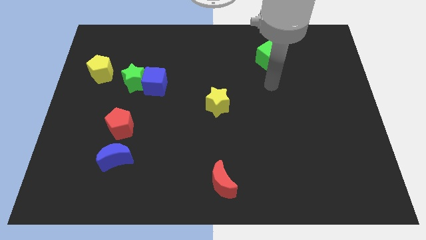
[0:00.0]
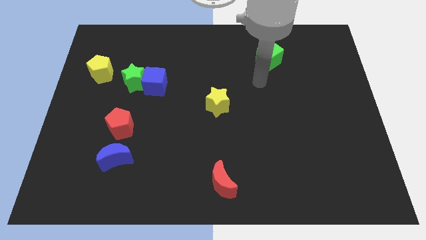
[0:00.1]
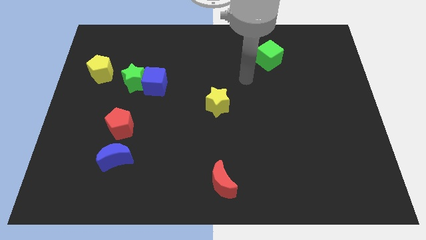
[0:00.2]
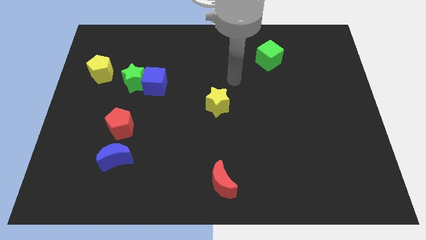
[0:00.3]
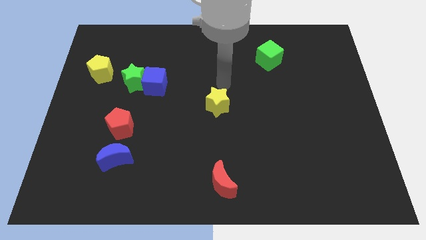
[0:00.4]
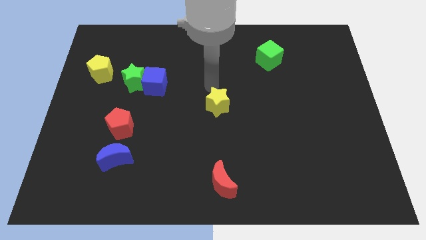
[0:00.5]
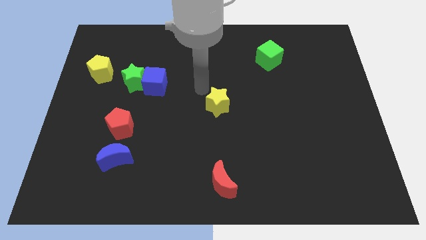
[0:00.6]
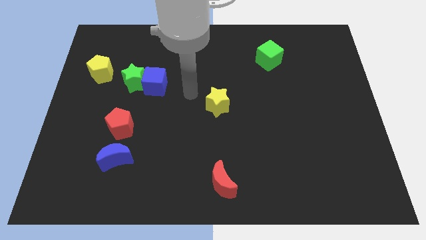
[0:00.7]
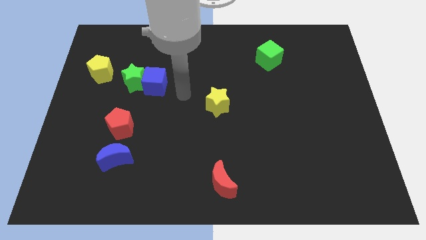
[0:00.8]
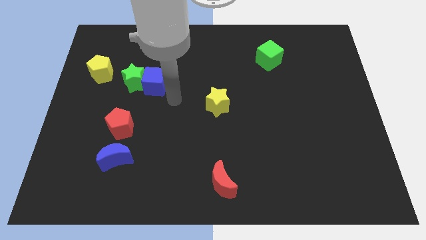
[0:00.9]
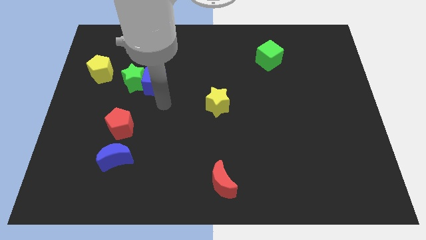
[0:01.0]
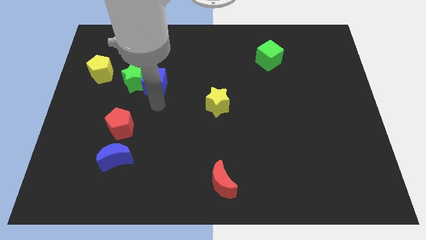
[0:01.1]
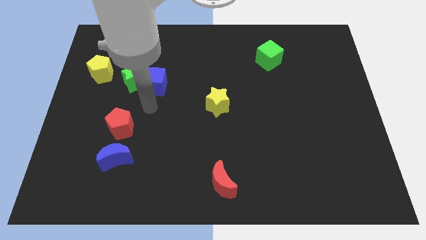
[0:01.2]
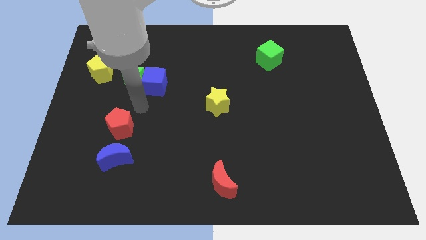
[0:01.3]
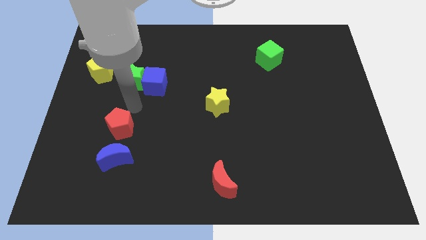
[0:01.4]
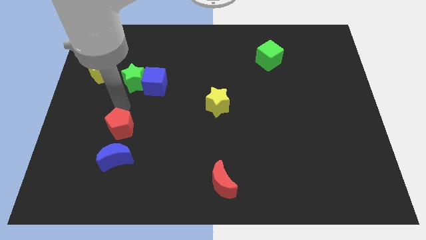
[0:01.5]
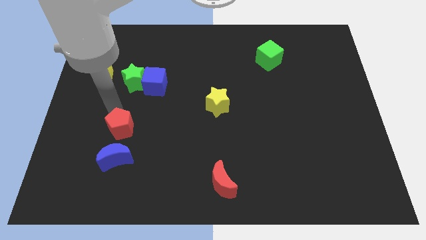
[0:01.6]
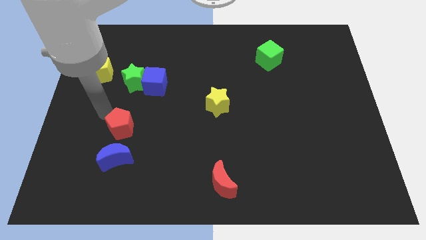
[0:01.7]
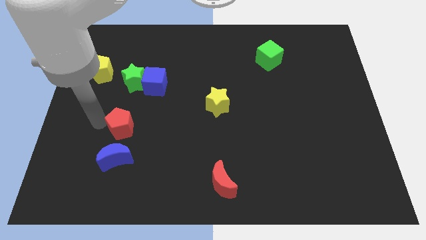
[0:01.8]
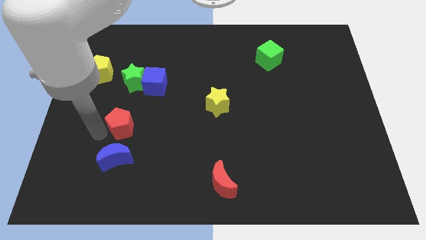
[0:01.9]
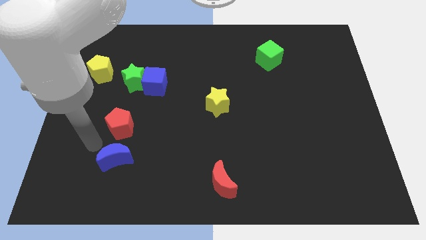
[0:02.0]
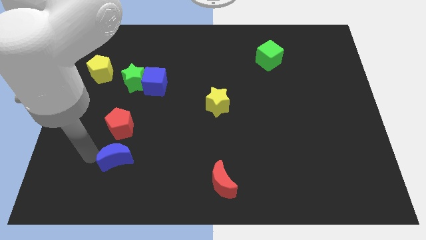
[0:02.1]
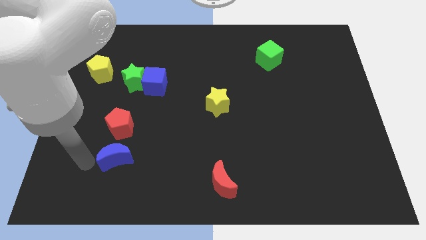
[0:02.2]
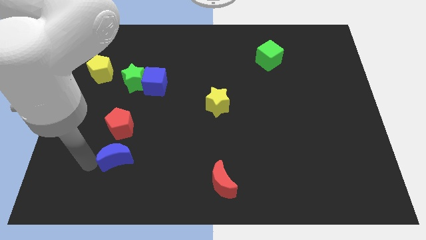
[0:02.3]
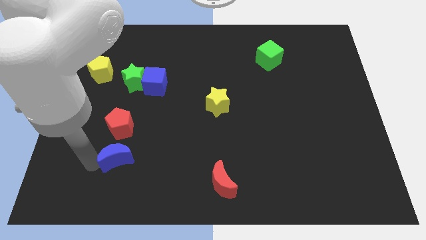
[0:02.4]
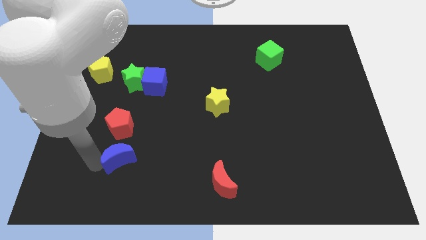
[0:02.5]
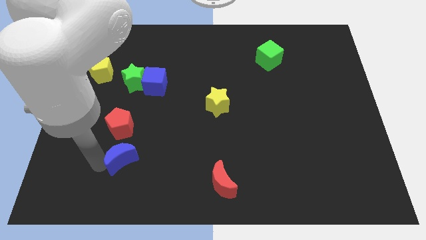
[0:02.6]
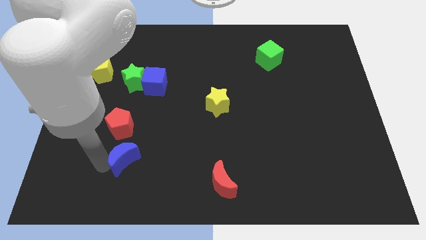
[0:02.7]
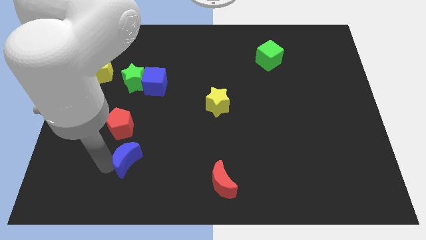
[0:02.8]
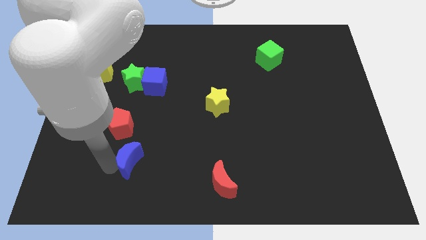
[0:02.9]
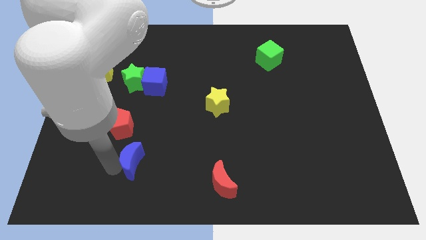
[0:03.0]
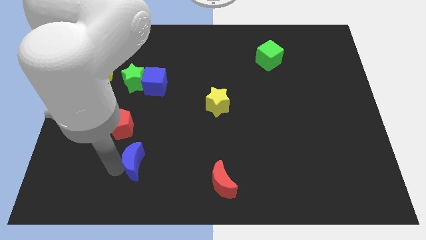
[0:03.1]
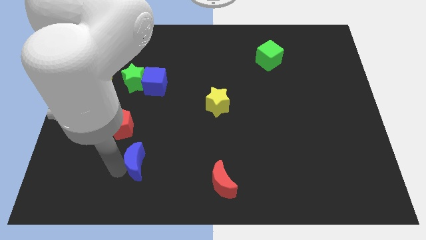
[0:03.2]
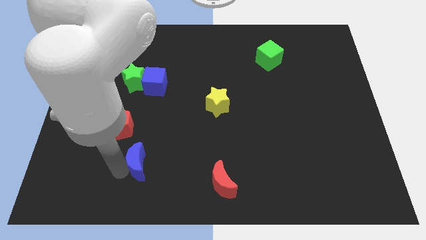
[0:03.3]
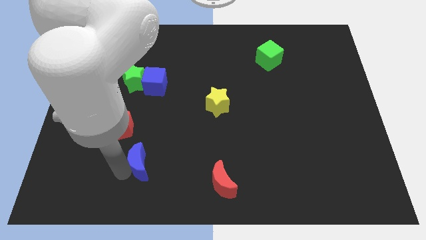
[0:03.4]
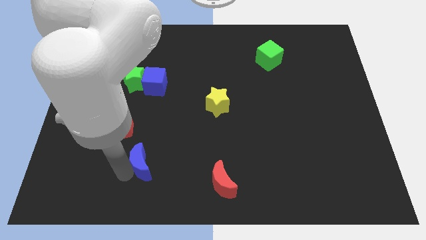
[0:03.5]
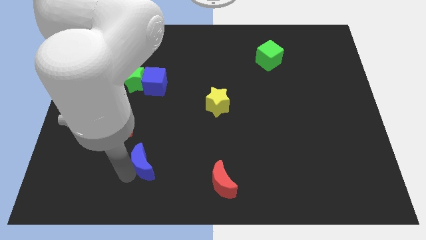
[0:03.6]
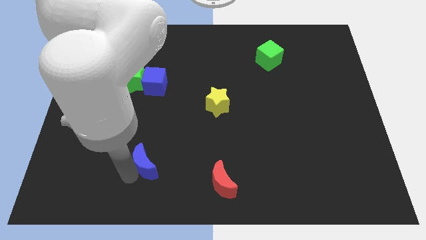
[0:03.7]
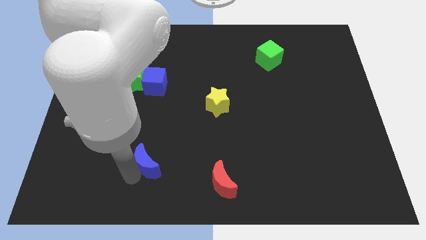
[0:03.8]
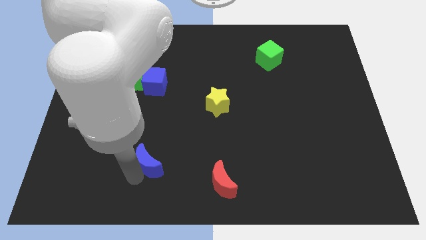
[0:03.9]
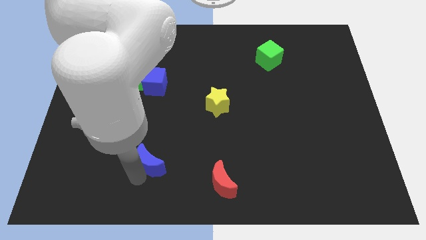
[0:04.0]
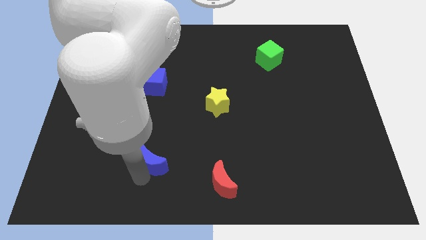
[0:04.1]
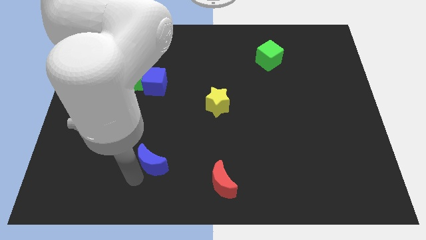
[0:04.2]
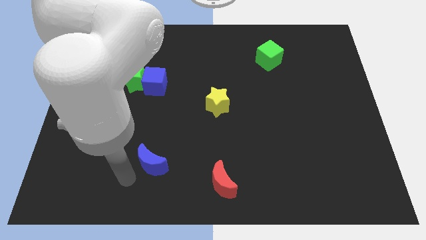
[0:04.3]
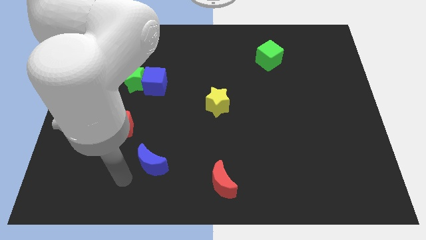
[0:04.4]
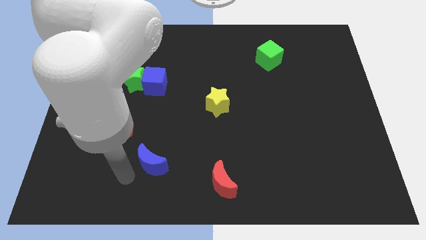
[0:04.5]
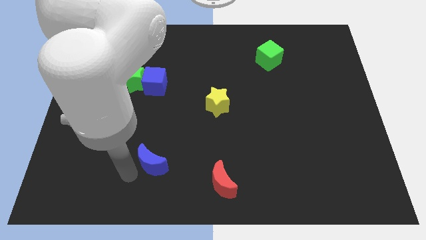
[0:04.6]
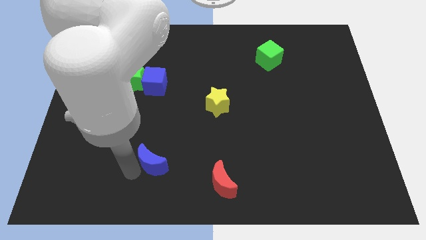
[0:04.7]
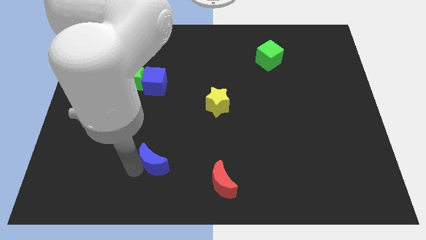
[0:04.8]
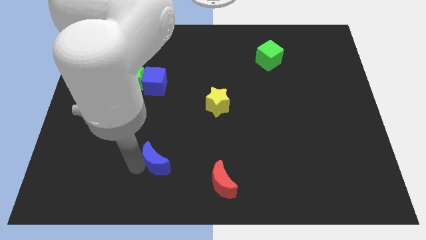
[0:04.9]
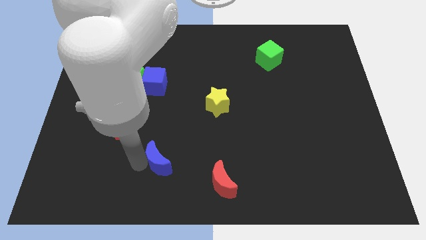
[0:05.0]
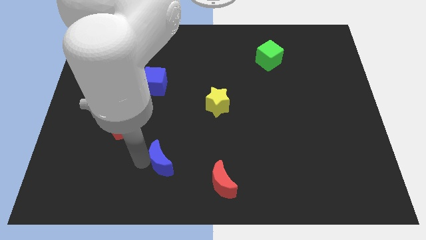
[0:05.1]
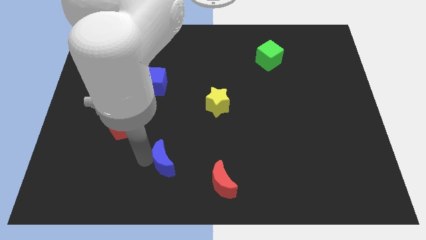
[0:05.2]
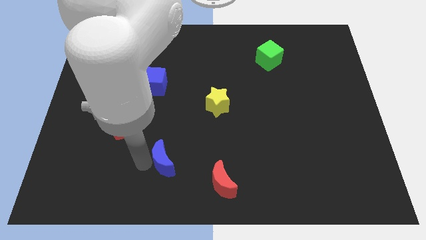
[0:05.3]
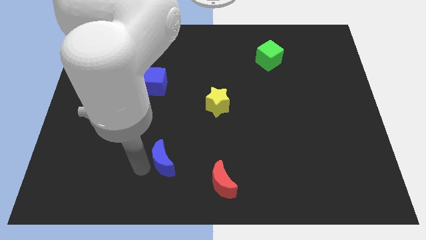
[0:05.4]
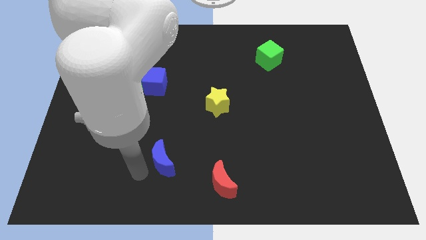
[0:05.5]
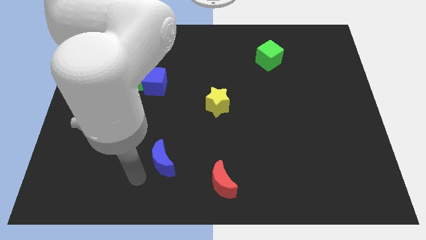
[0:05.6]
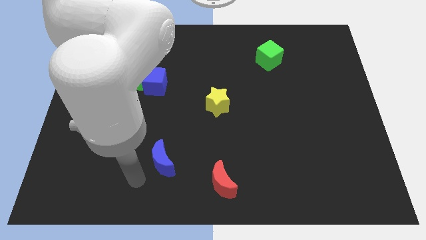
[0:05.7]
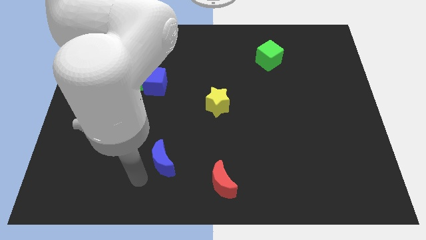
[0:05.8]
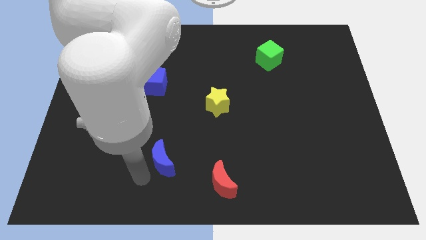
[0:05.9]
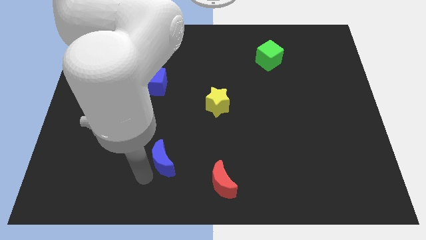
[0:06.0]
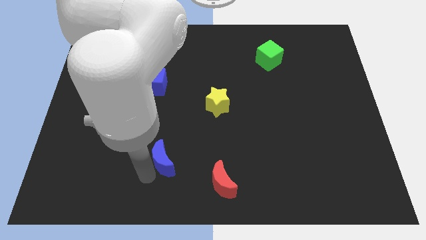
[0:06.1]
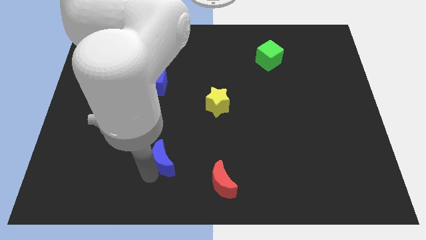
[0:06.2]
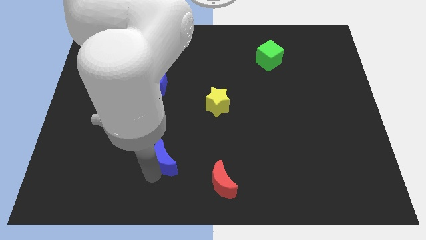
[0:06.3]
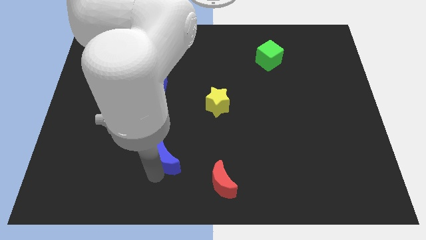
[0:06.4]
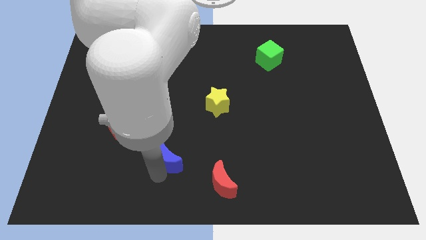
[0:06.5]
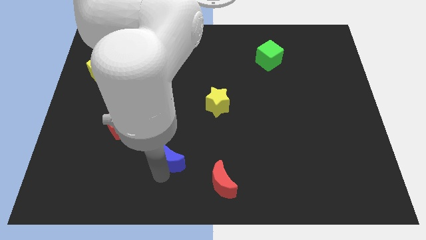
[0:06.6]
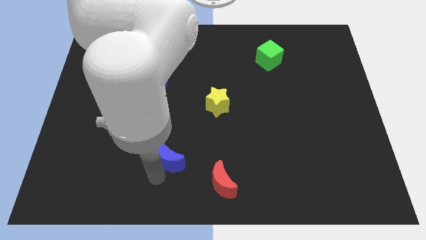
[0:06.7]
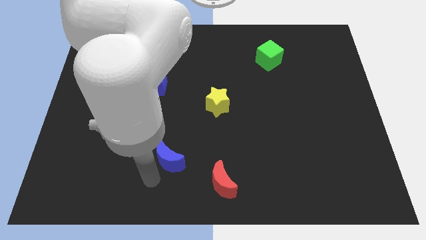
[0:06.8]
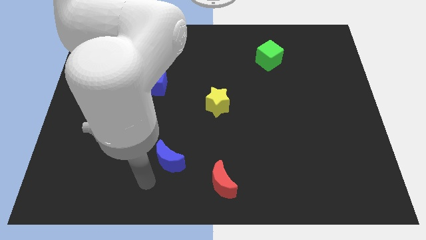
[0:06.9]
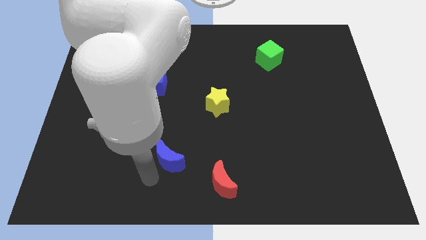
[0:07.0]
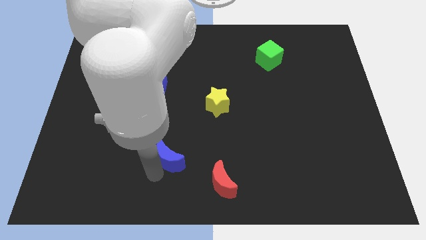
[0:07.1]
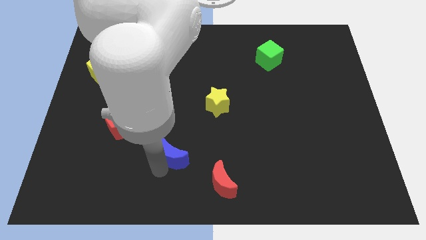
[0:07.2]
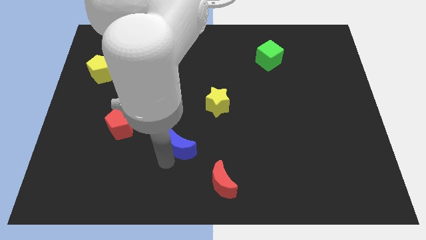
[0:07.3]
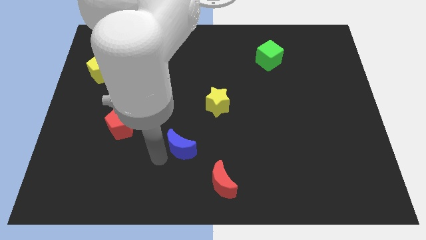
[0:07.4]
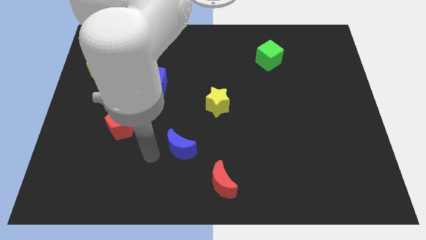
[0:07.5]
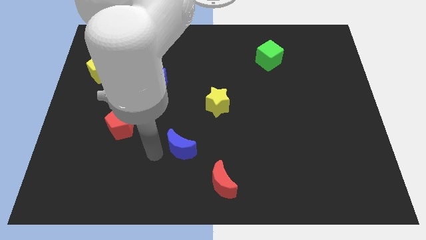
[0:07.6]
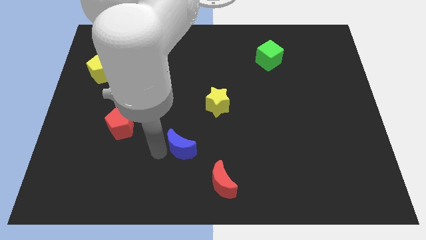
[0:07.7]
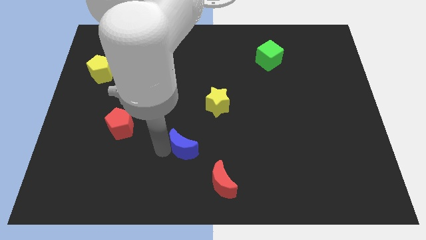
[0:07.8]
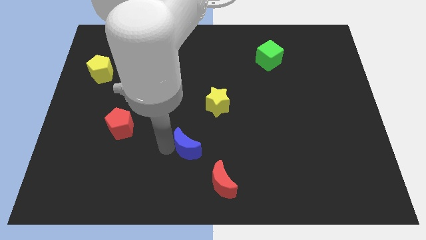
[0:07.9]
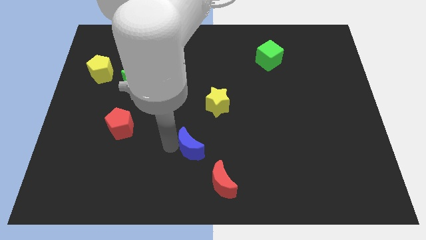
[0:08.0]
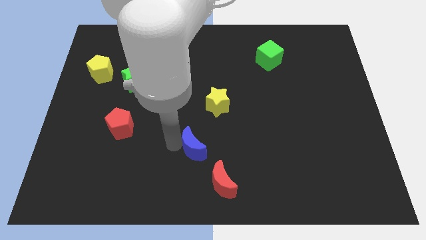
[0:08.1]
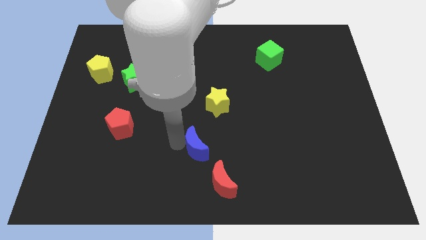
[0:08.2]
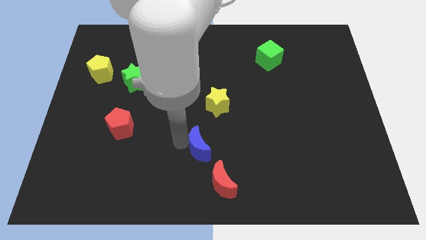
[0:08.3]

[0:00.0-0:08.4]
move the blue moon to the top side of the red moon
